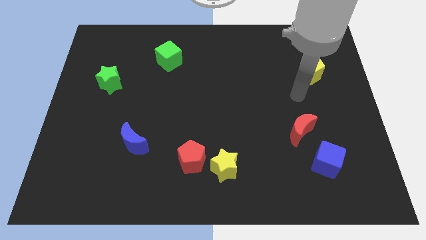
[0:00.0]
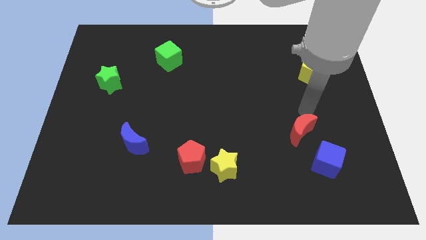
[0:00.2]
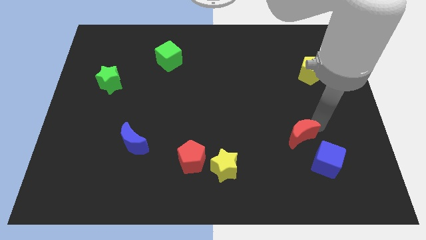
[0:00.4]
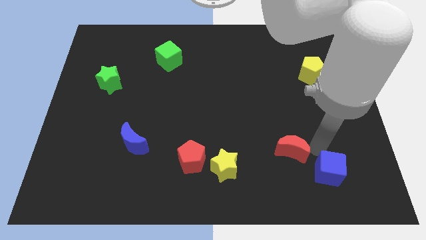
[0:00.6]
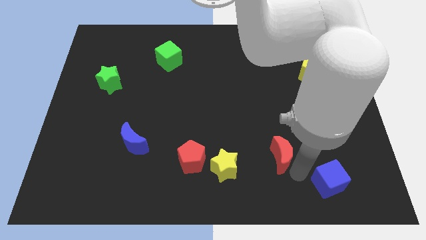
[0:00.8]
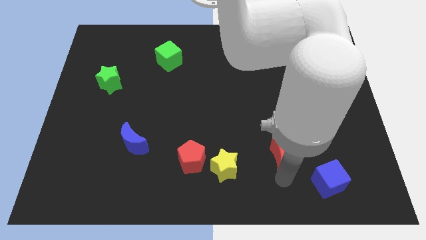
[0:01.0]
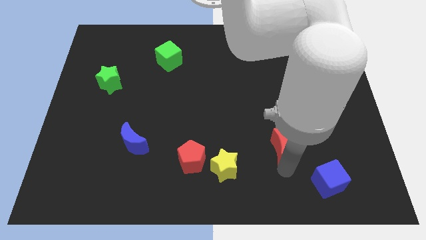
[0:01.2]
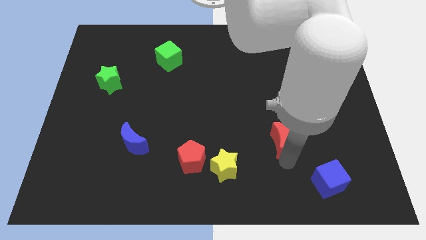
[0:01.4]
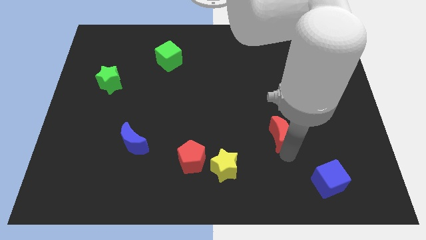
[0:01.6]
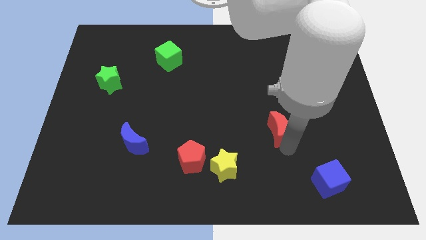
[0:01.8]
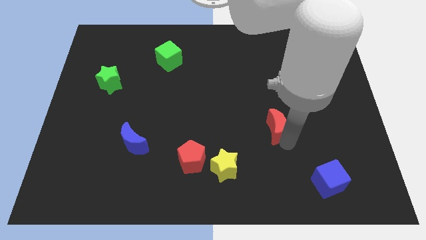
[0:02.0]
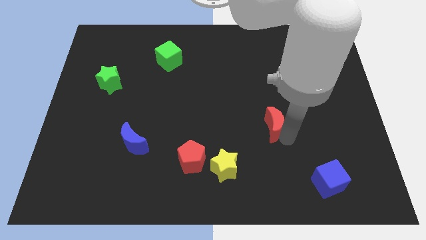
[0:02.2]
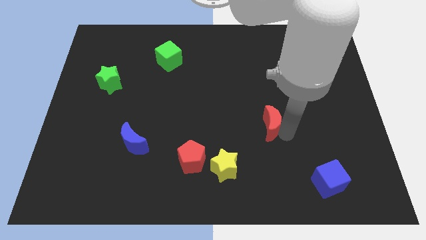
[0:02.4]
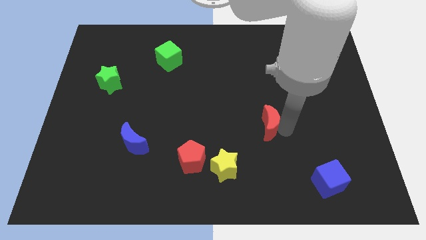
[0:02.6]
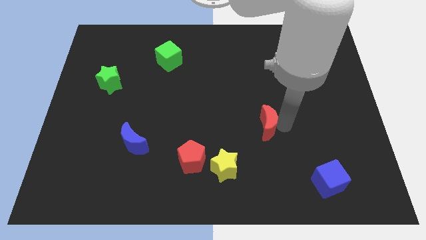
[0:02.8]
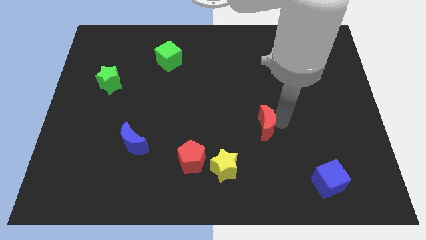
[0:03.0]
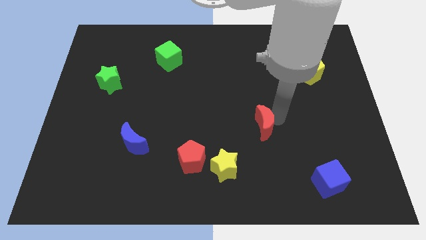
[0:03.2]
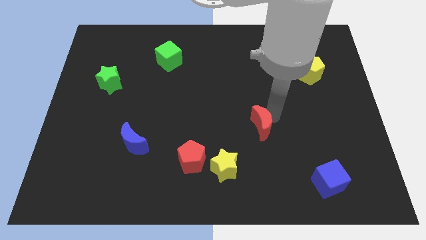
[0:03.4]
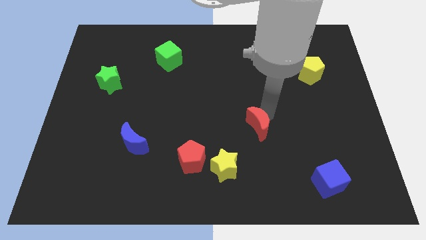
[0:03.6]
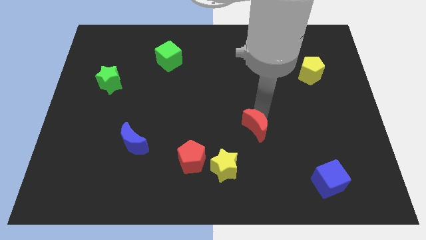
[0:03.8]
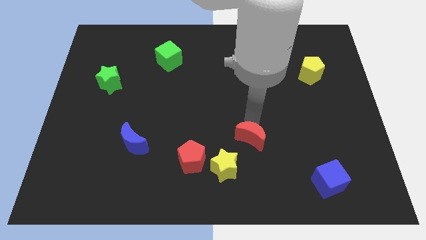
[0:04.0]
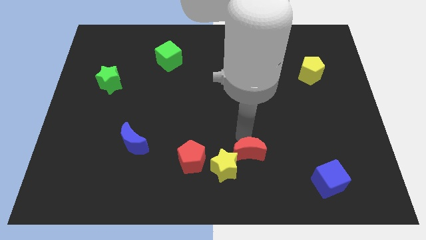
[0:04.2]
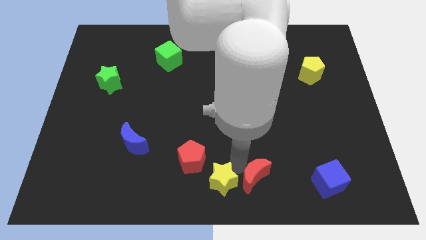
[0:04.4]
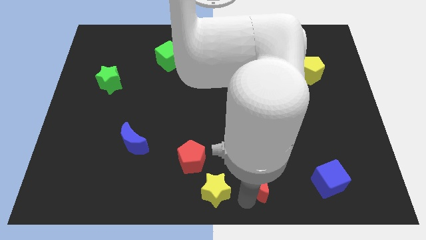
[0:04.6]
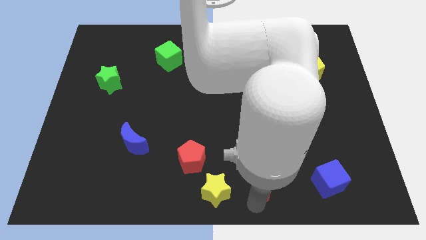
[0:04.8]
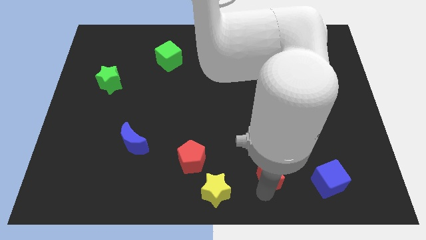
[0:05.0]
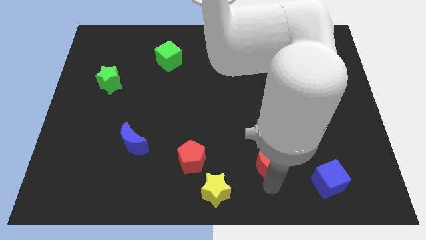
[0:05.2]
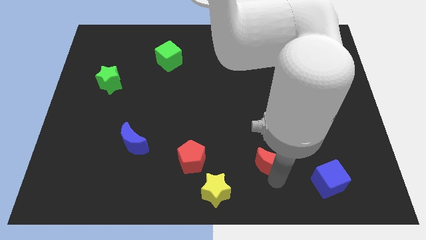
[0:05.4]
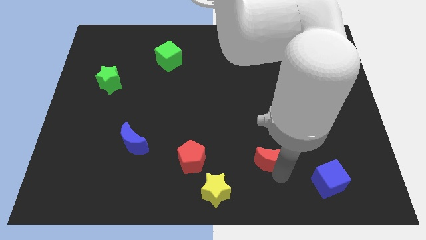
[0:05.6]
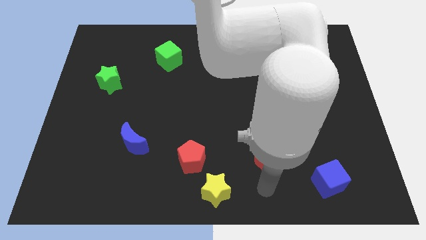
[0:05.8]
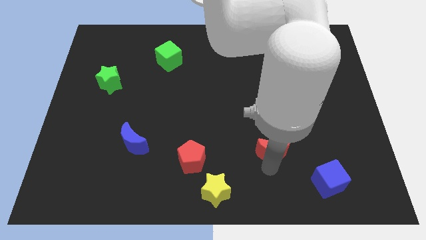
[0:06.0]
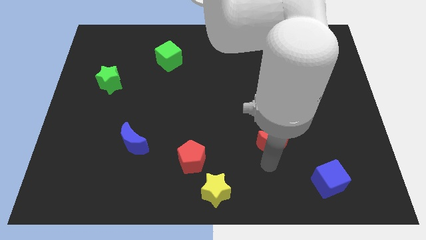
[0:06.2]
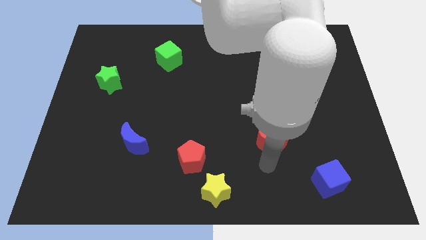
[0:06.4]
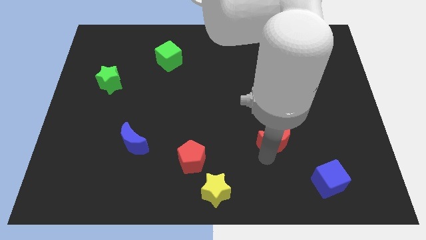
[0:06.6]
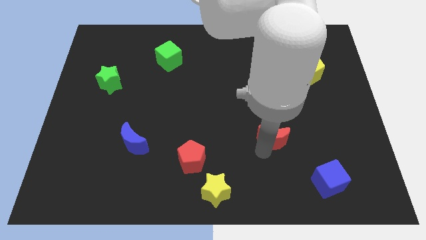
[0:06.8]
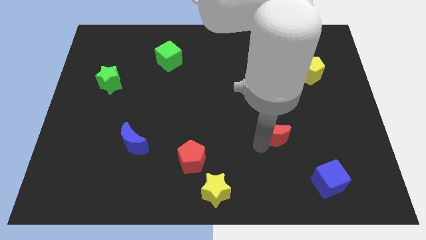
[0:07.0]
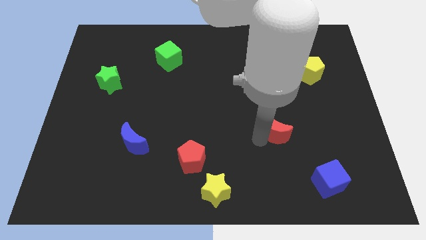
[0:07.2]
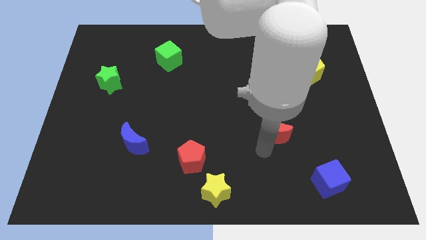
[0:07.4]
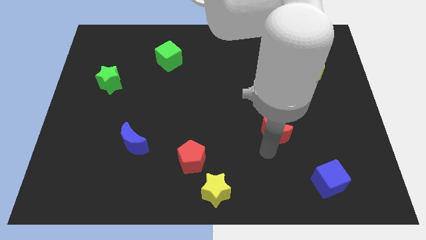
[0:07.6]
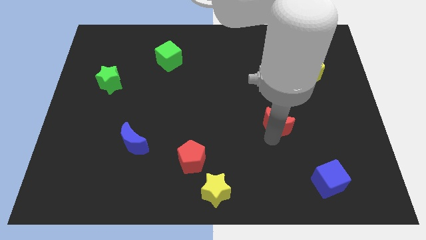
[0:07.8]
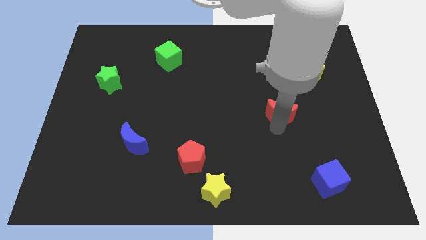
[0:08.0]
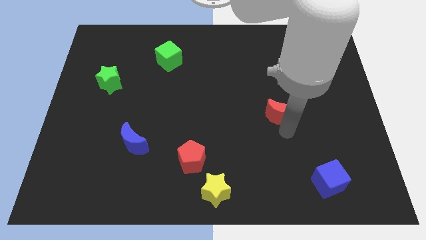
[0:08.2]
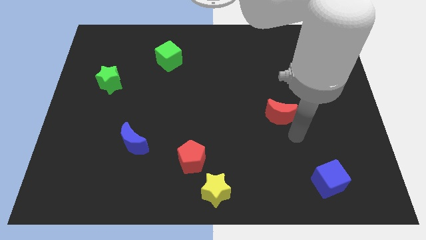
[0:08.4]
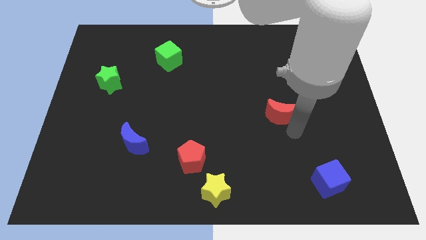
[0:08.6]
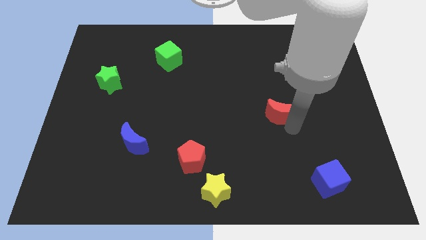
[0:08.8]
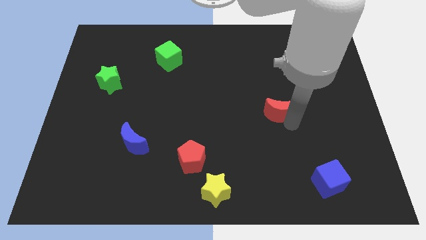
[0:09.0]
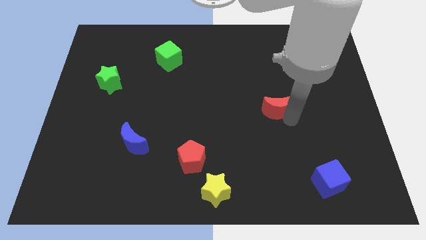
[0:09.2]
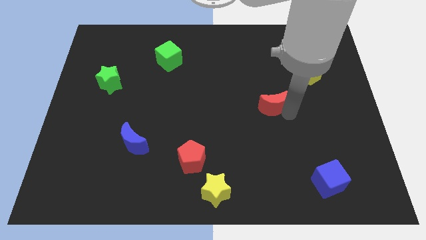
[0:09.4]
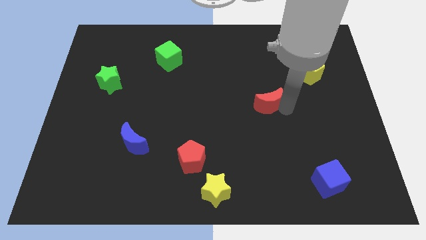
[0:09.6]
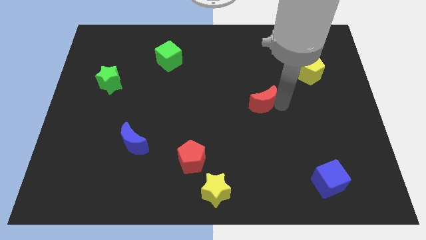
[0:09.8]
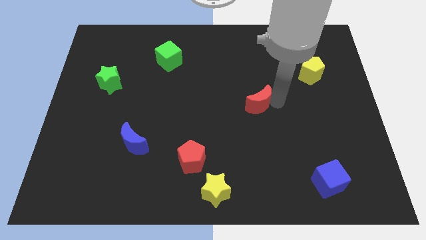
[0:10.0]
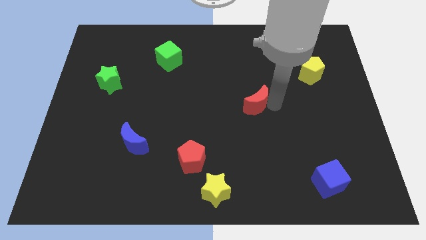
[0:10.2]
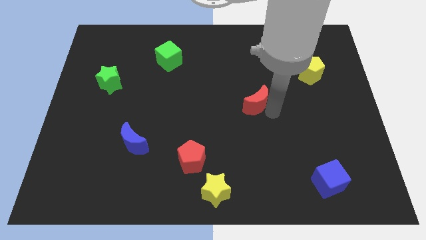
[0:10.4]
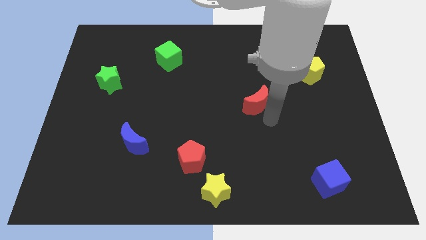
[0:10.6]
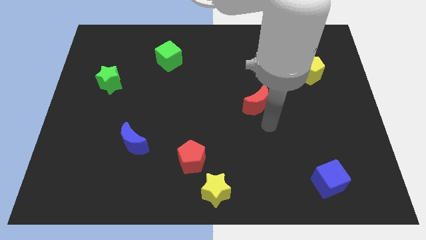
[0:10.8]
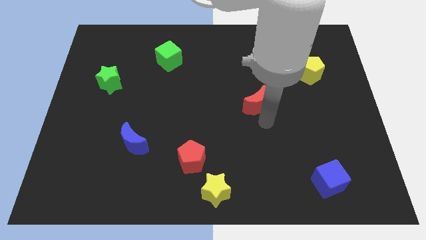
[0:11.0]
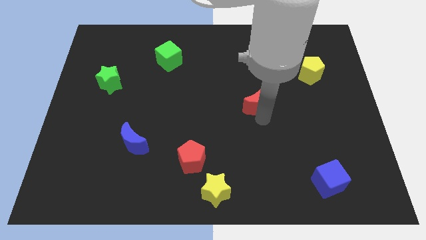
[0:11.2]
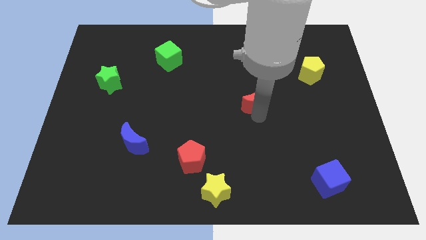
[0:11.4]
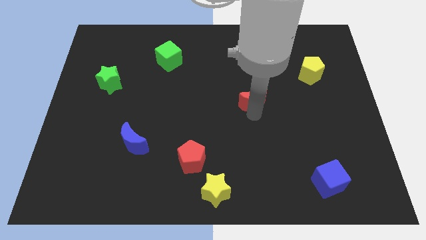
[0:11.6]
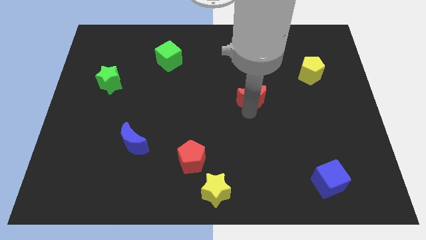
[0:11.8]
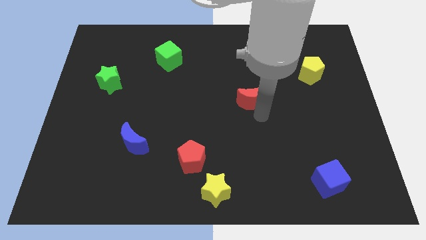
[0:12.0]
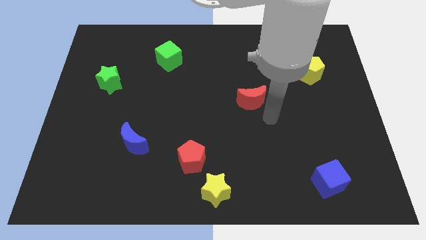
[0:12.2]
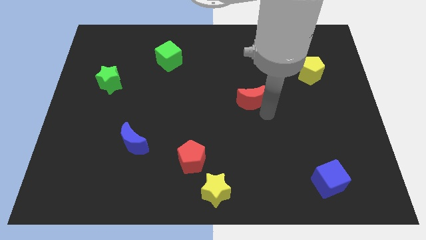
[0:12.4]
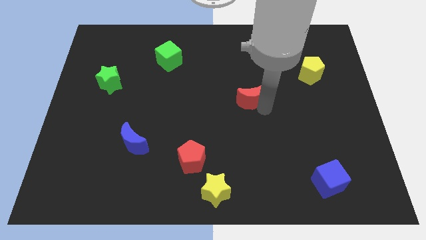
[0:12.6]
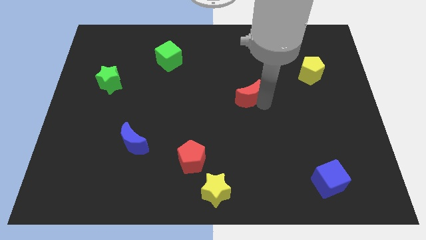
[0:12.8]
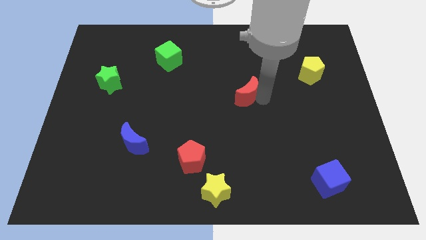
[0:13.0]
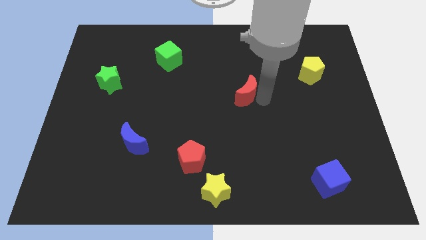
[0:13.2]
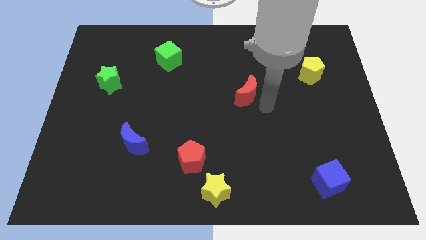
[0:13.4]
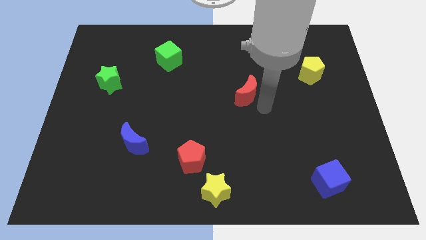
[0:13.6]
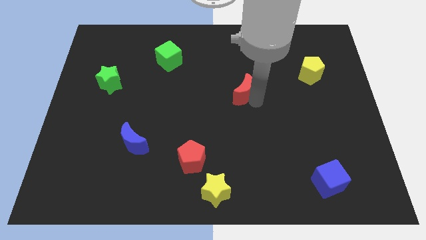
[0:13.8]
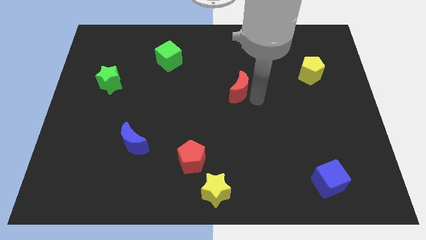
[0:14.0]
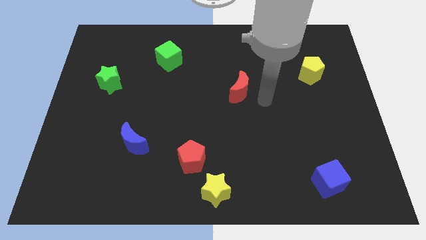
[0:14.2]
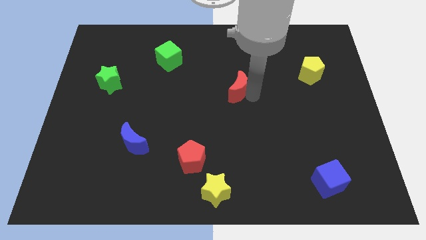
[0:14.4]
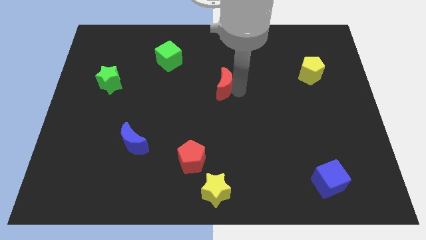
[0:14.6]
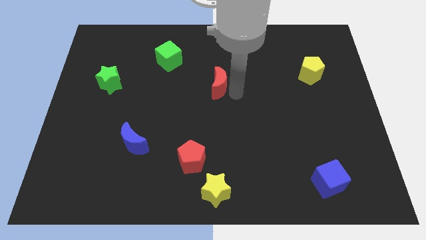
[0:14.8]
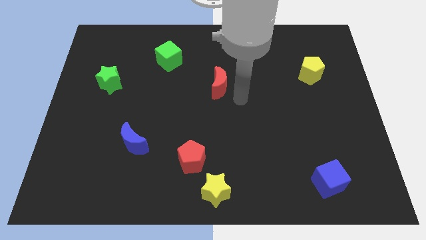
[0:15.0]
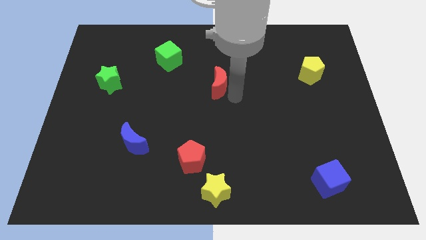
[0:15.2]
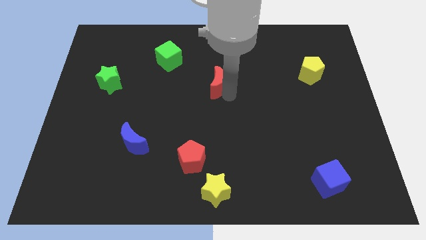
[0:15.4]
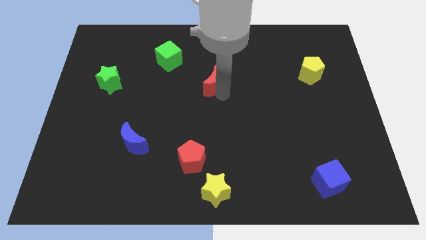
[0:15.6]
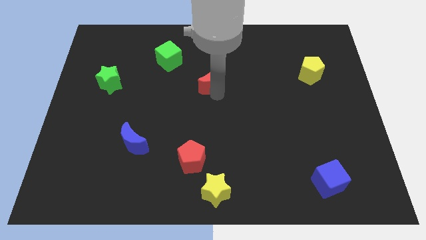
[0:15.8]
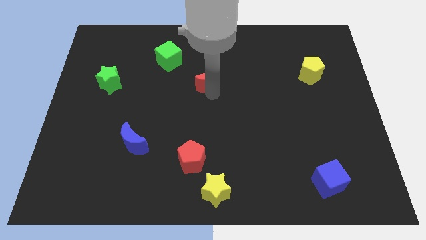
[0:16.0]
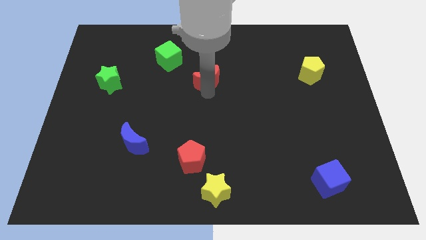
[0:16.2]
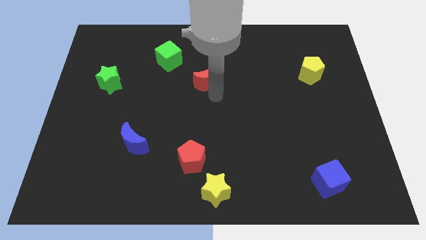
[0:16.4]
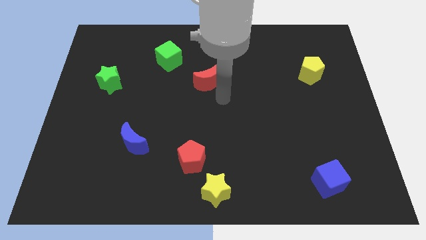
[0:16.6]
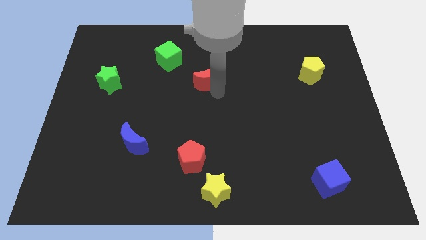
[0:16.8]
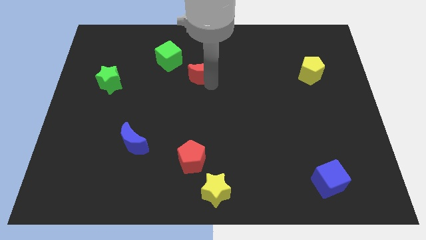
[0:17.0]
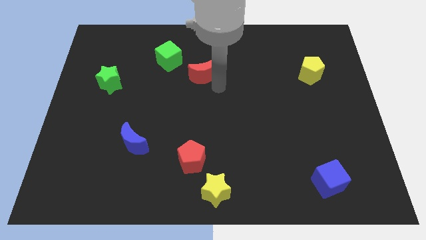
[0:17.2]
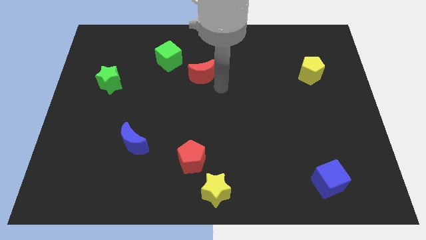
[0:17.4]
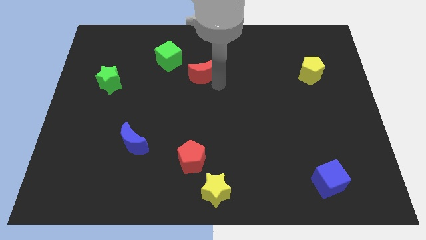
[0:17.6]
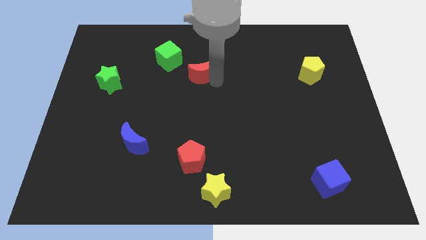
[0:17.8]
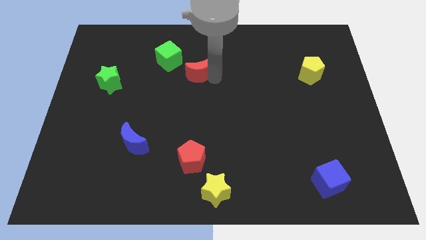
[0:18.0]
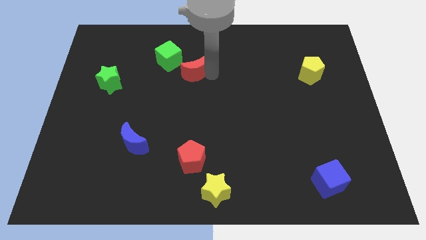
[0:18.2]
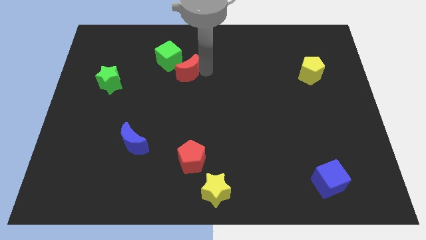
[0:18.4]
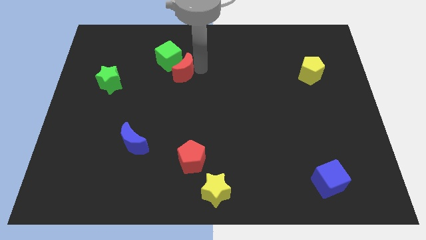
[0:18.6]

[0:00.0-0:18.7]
push the red moon to the green cube
